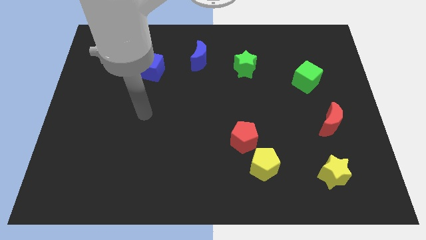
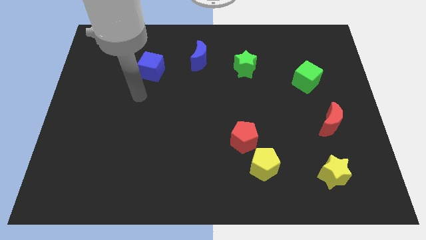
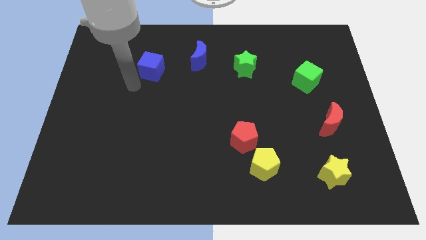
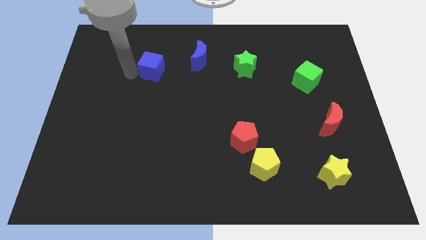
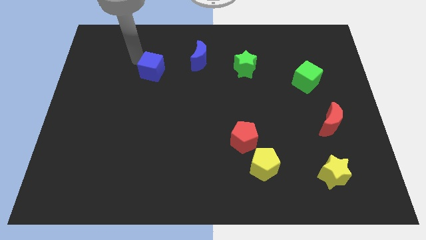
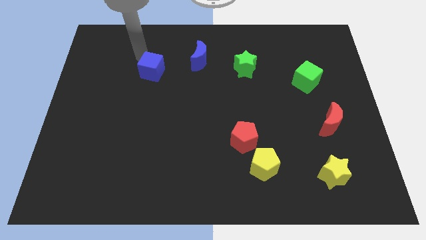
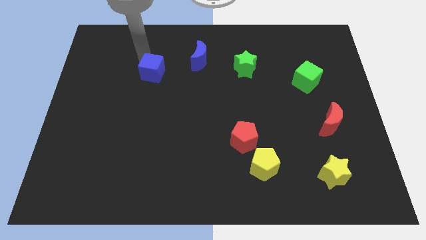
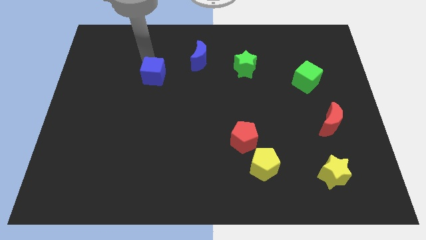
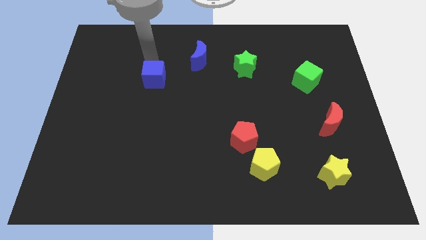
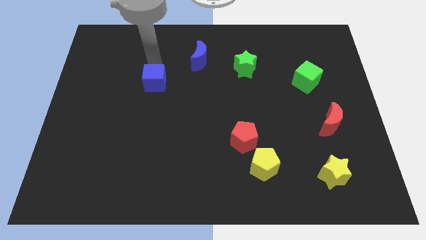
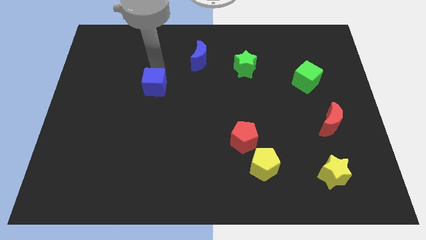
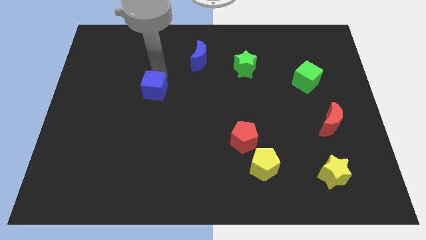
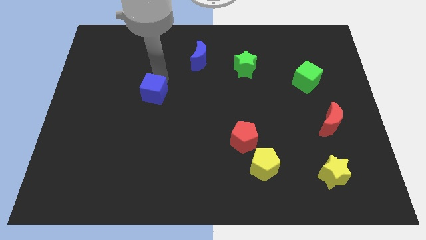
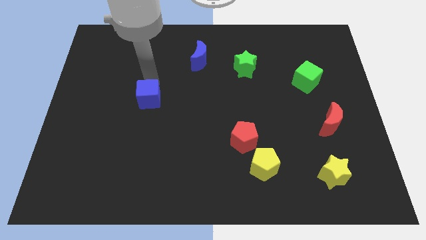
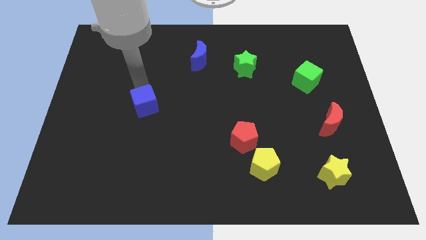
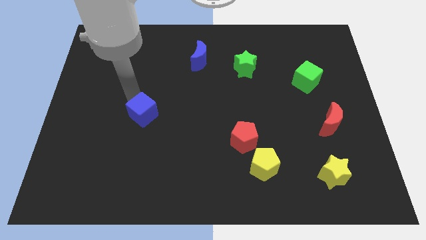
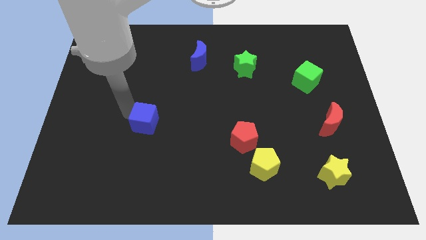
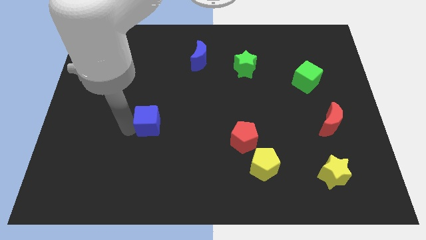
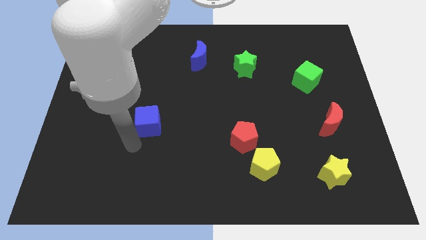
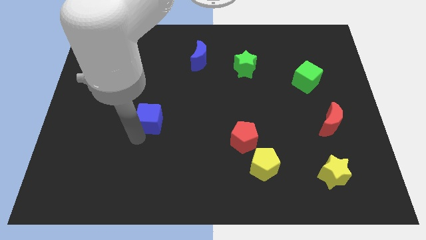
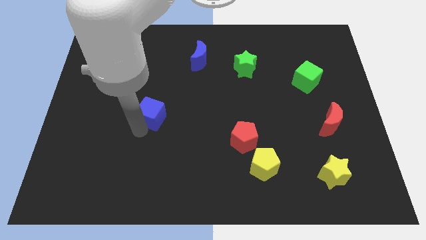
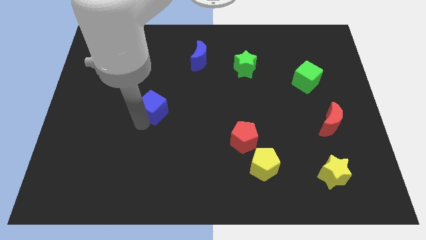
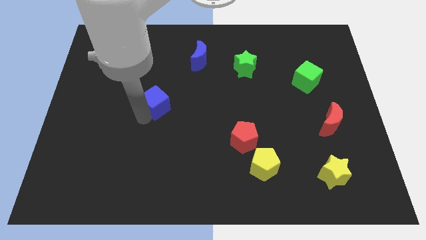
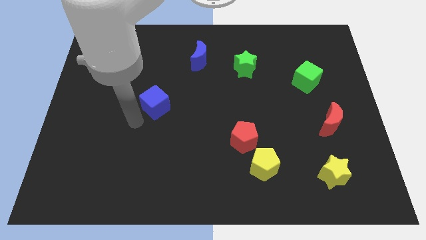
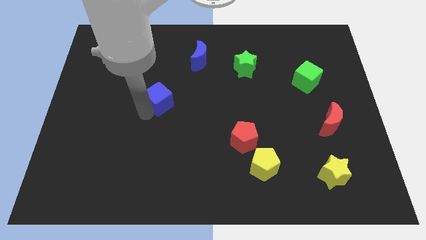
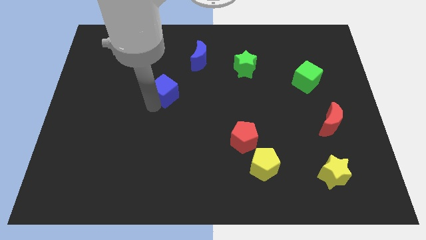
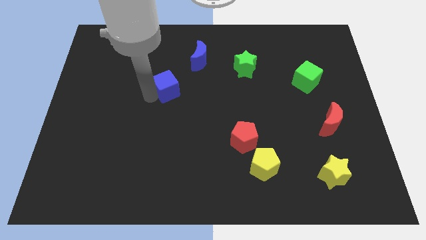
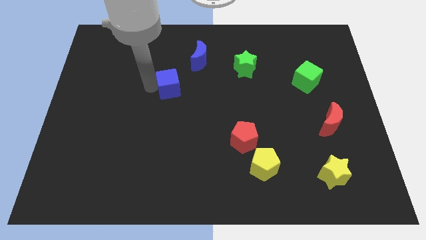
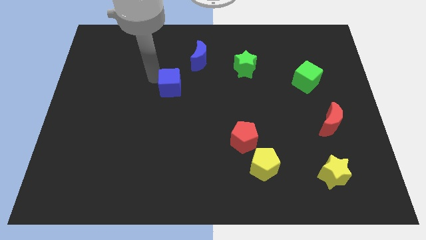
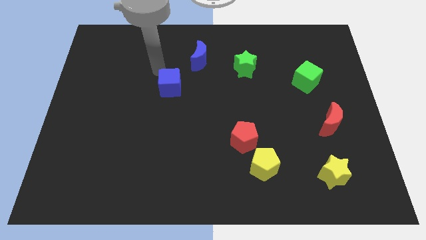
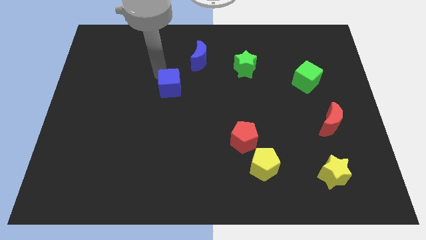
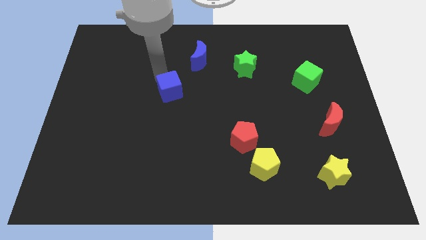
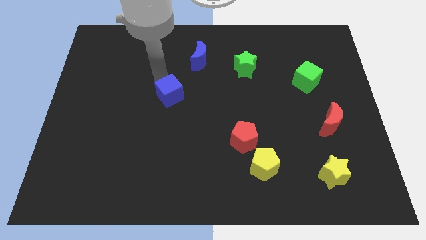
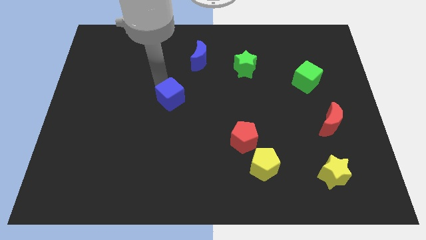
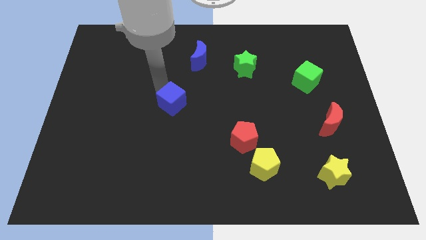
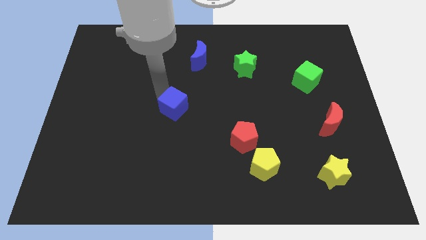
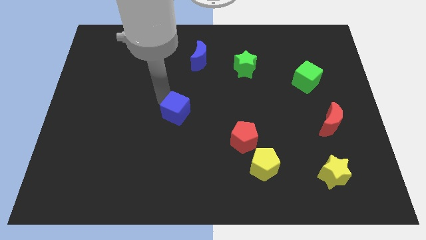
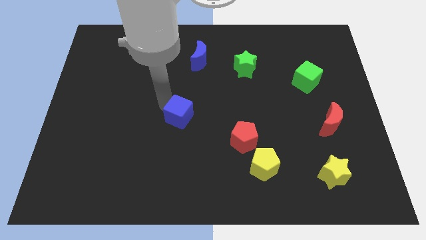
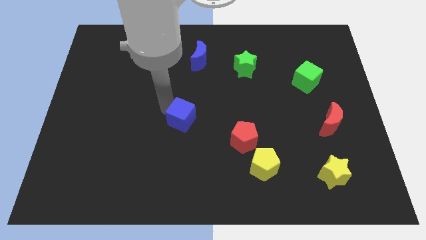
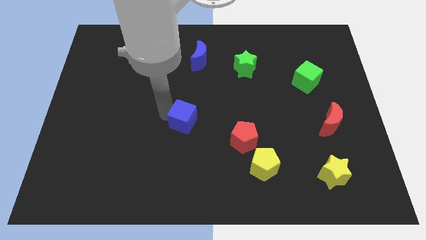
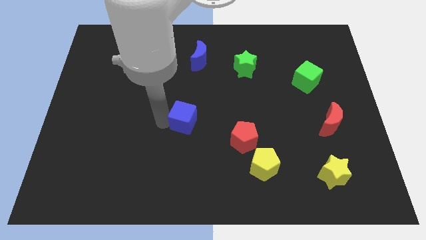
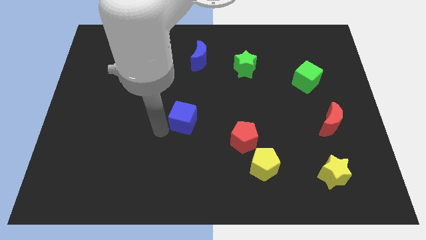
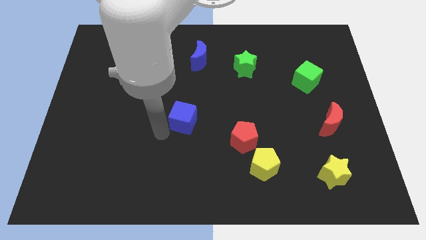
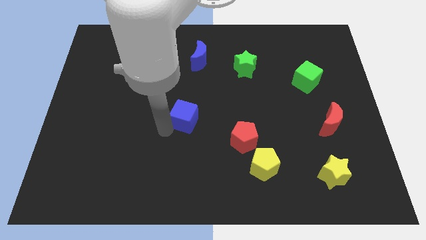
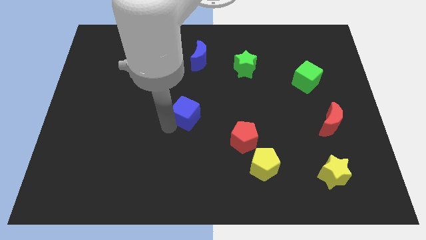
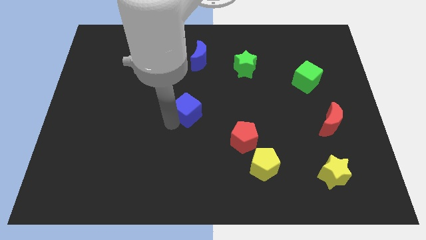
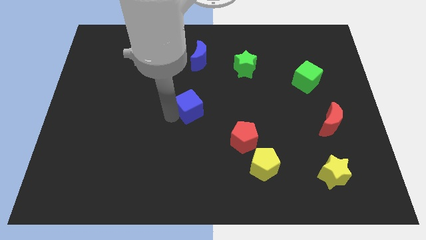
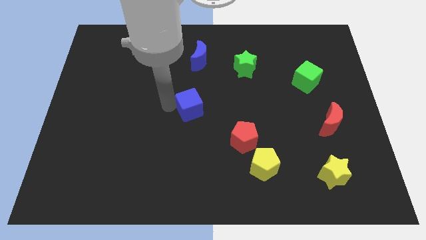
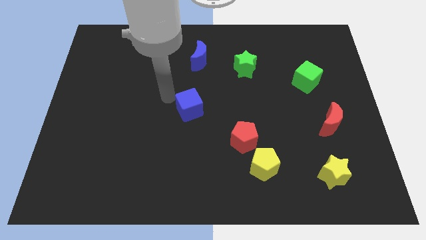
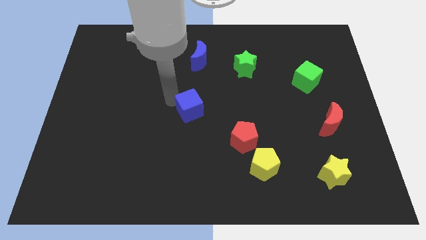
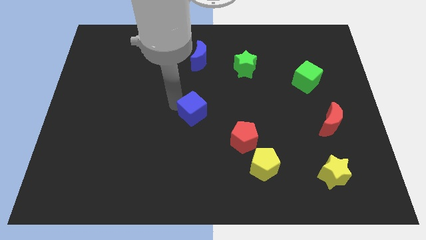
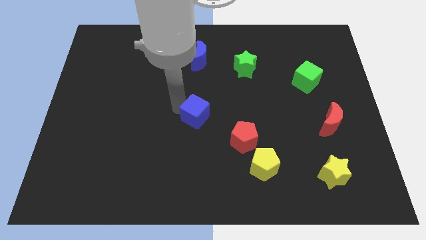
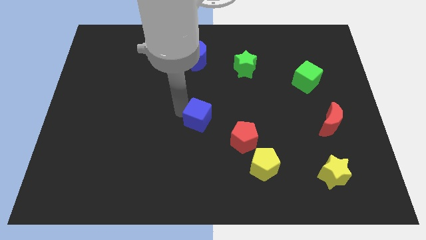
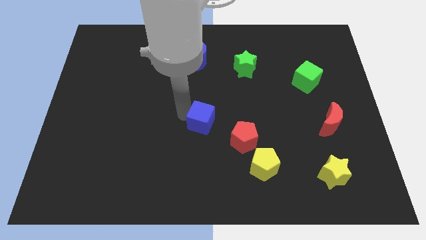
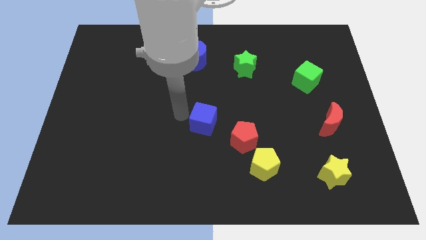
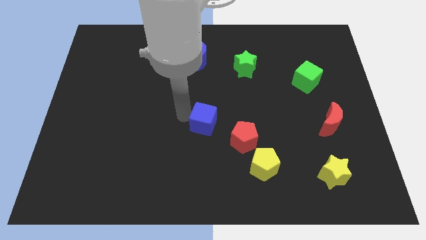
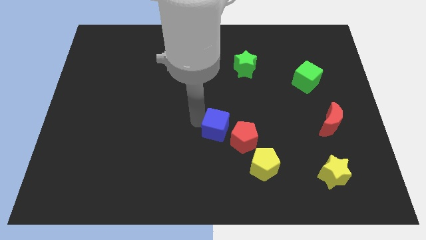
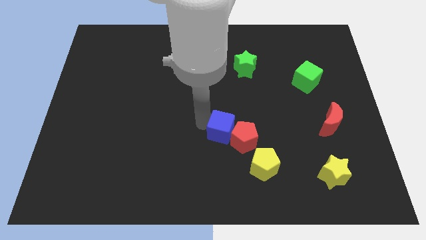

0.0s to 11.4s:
move the blue cube to the red pentagon

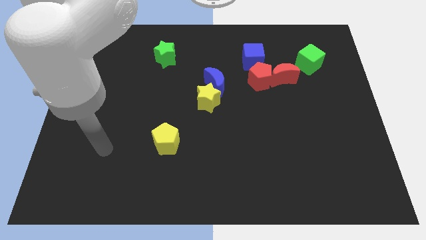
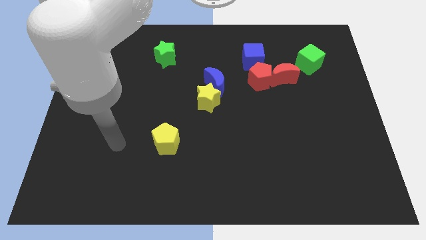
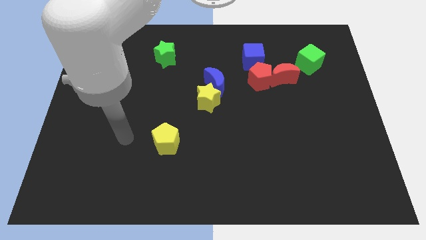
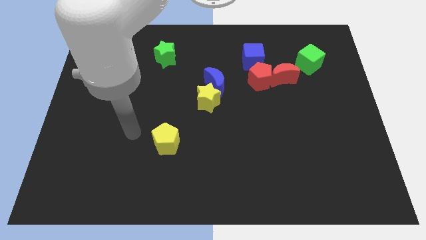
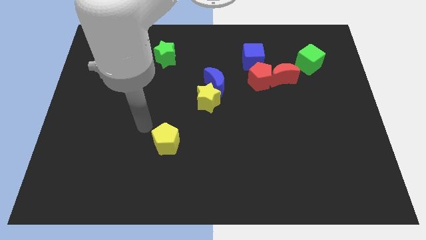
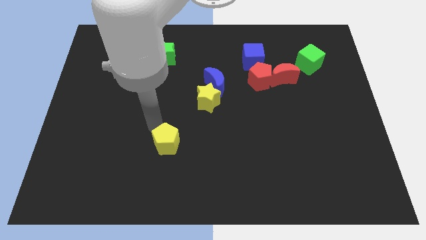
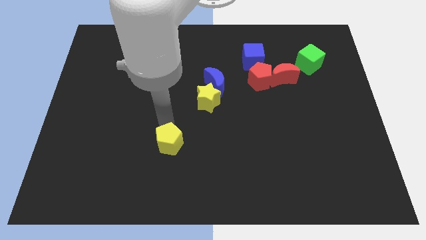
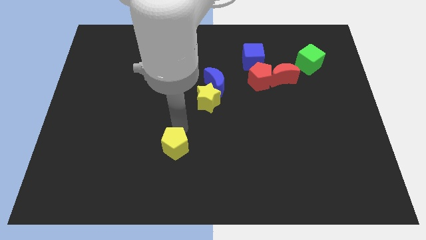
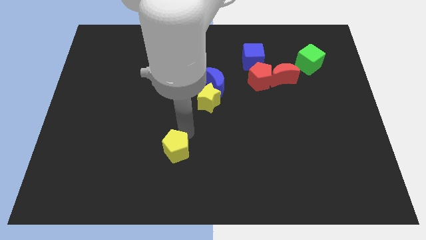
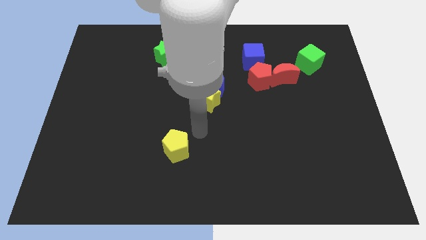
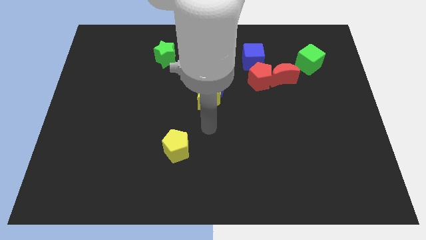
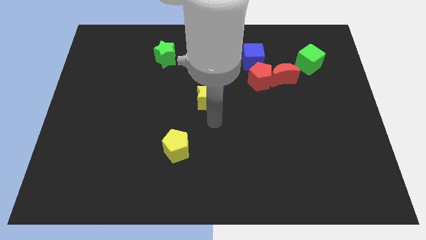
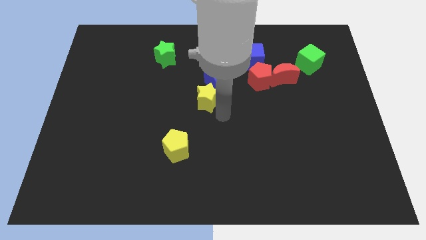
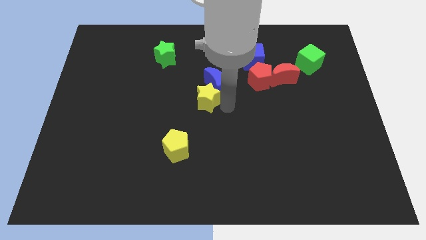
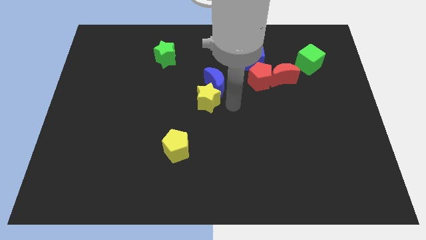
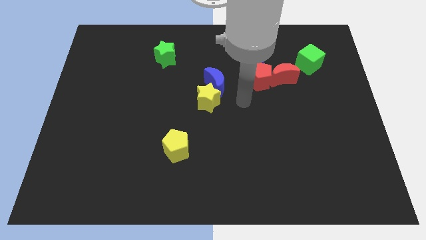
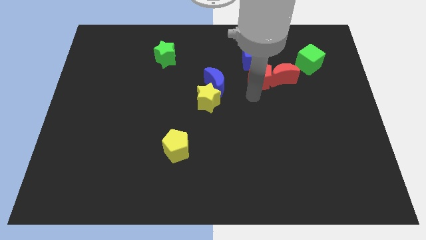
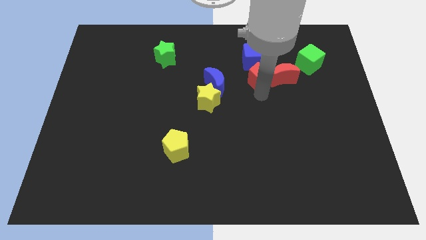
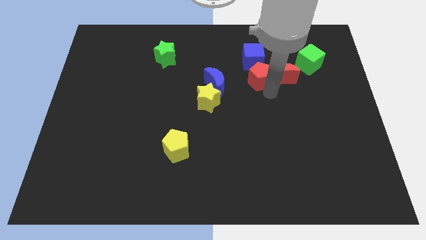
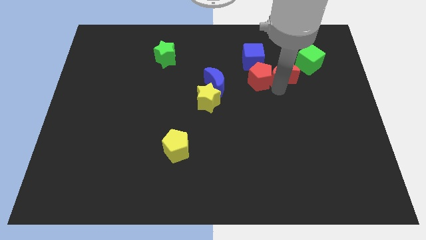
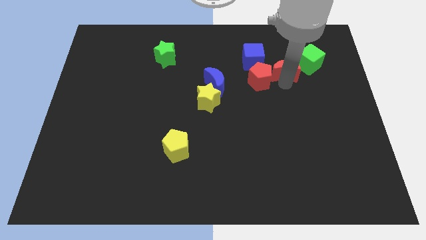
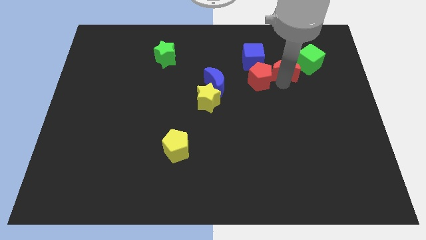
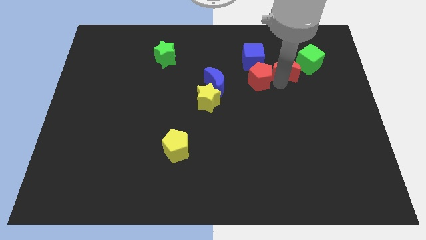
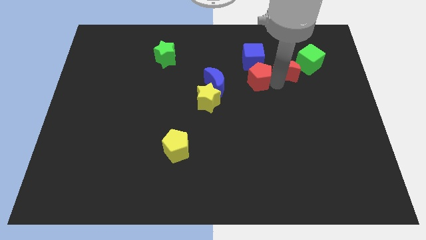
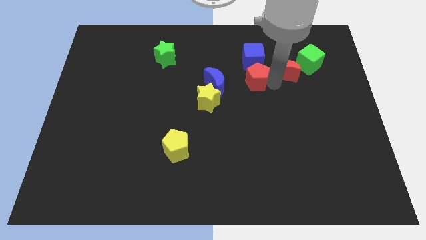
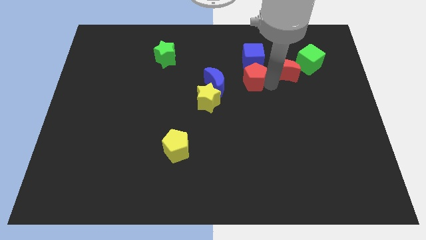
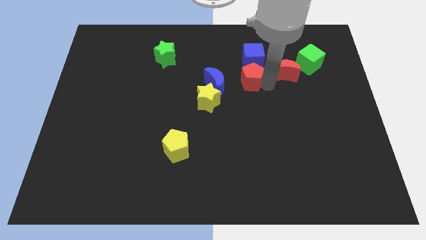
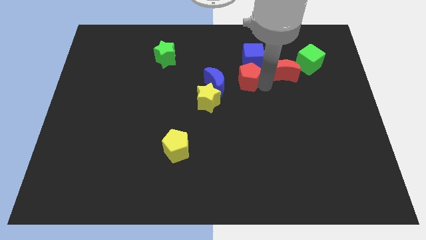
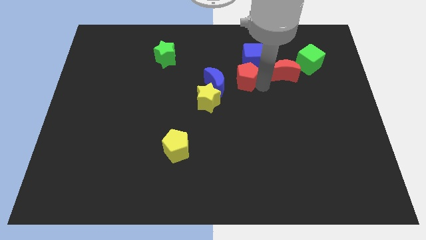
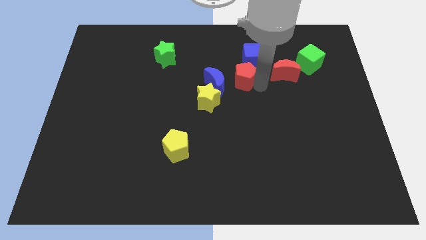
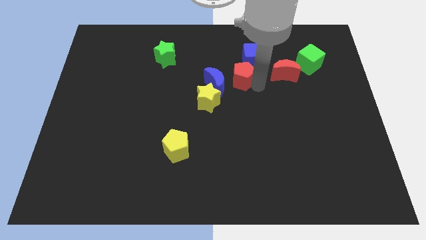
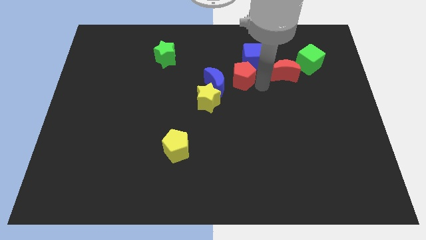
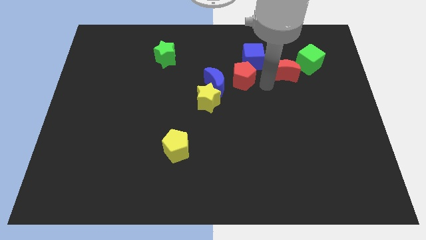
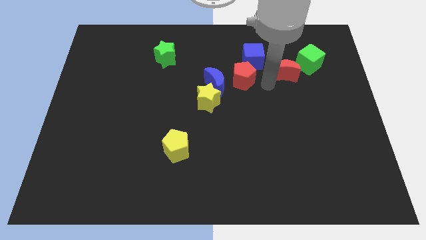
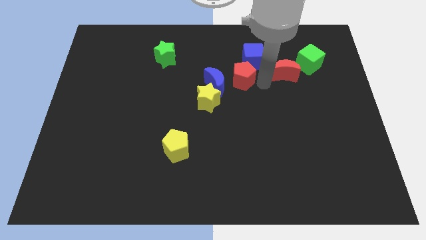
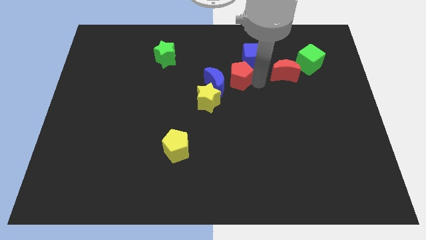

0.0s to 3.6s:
move the red pentagon towards the blue moon
